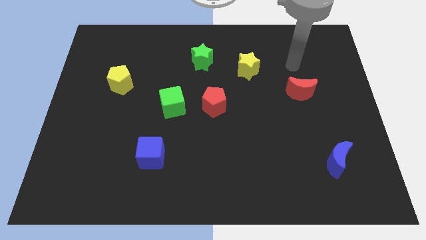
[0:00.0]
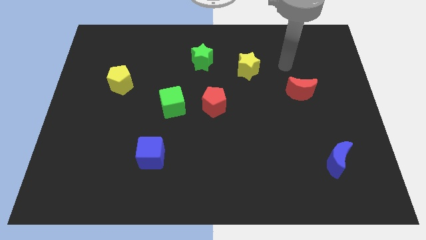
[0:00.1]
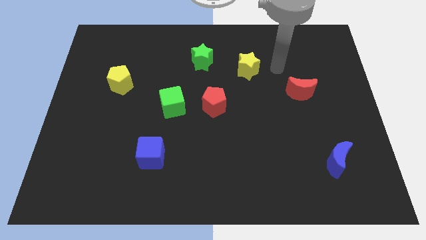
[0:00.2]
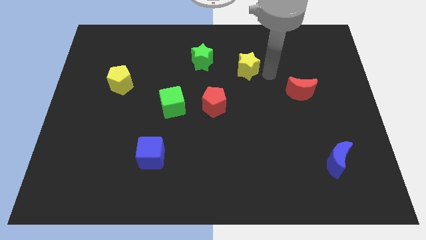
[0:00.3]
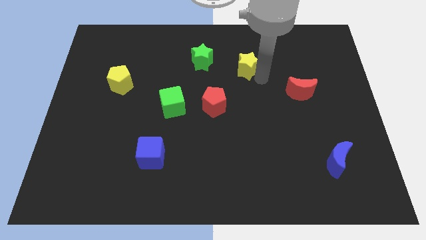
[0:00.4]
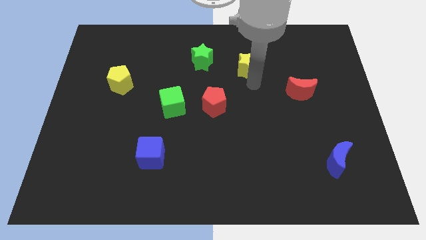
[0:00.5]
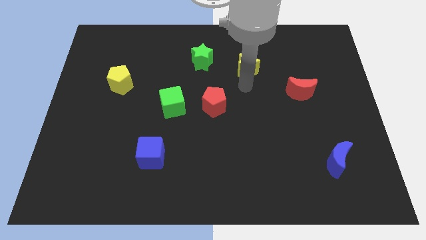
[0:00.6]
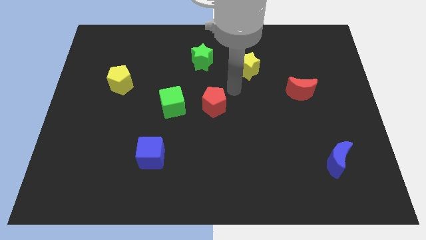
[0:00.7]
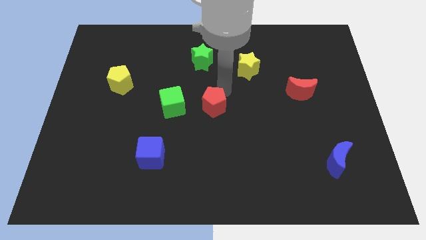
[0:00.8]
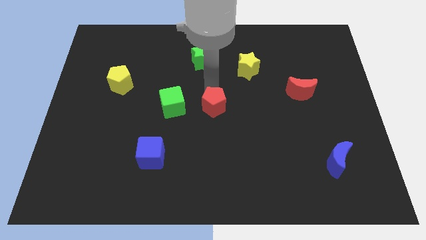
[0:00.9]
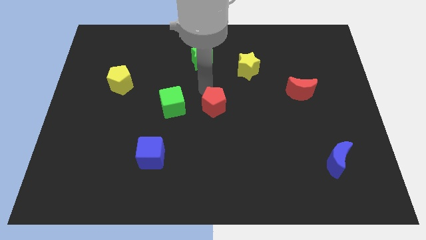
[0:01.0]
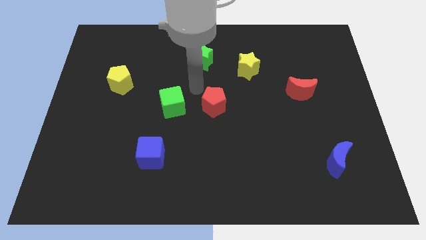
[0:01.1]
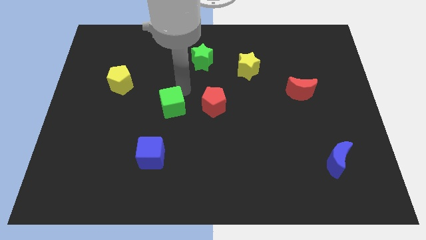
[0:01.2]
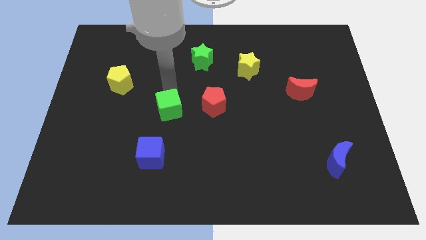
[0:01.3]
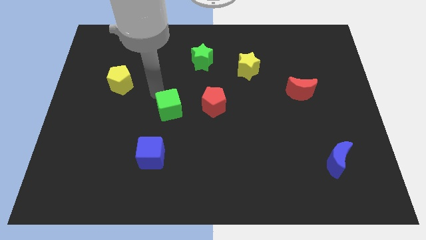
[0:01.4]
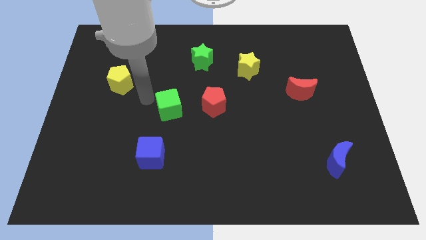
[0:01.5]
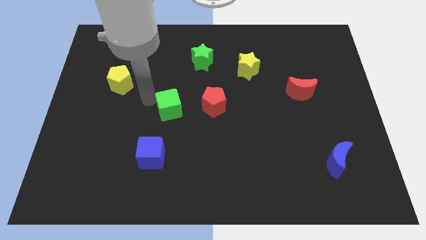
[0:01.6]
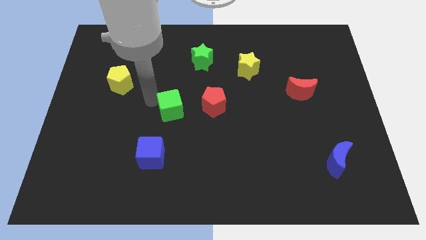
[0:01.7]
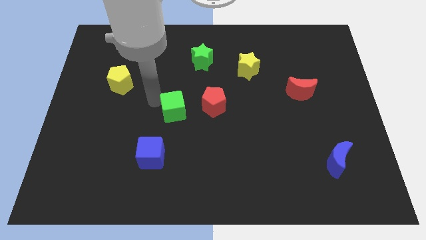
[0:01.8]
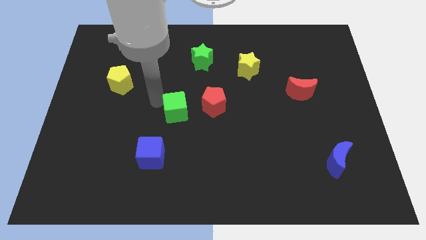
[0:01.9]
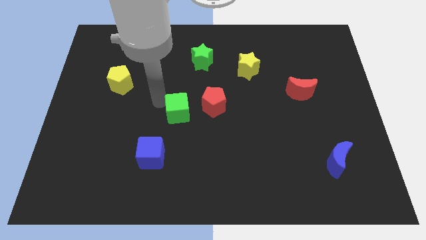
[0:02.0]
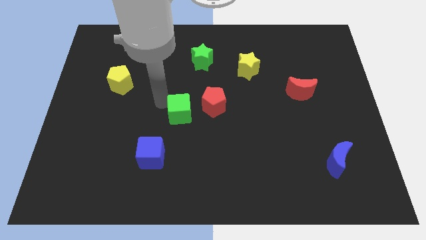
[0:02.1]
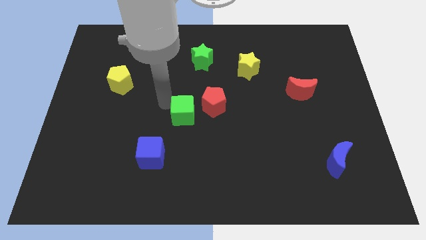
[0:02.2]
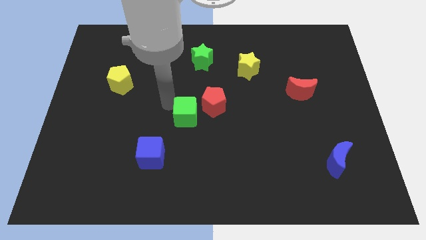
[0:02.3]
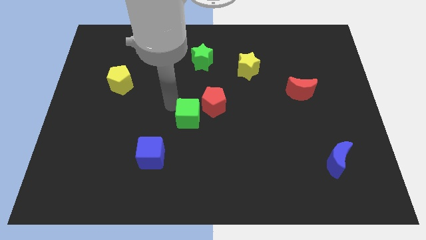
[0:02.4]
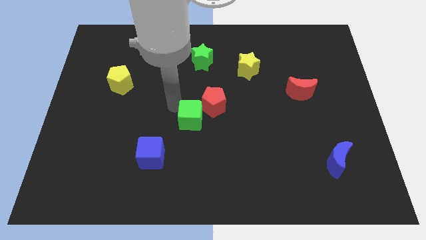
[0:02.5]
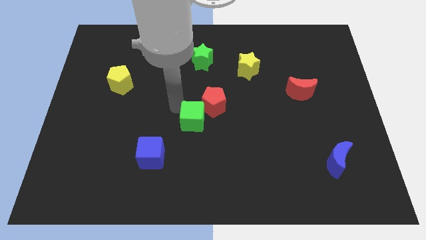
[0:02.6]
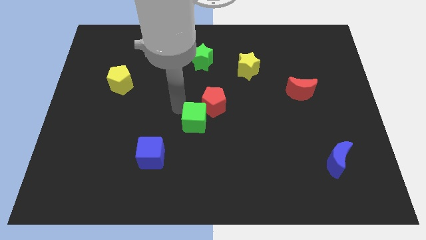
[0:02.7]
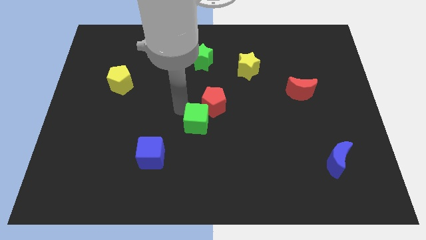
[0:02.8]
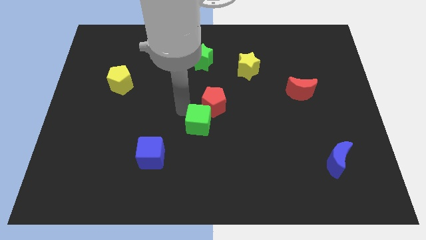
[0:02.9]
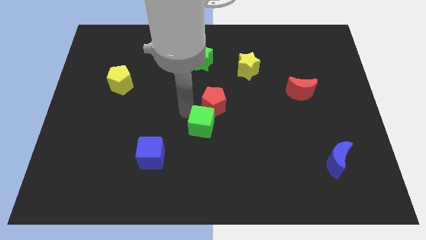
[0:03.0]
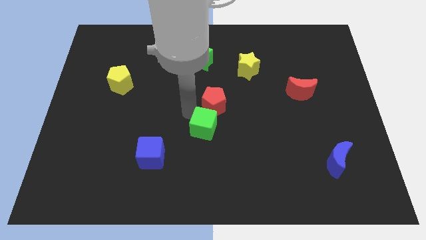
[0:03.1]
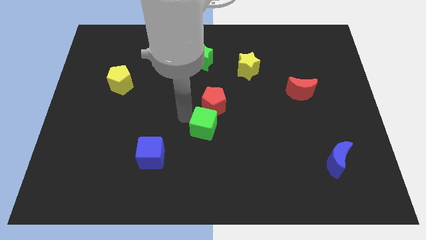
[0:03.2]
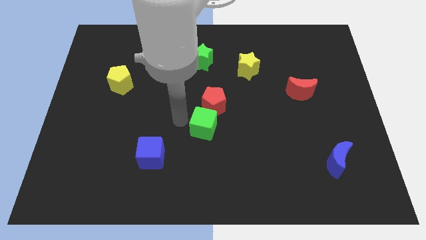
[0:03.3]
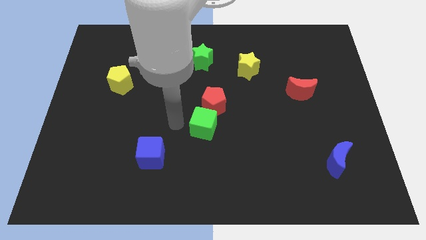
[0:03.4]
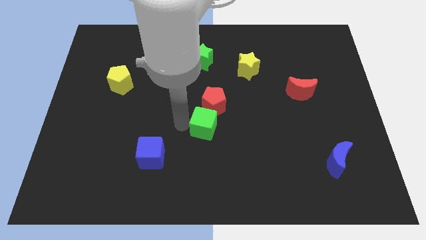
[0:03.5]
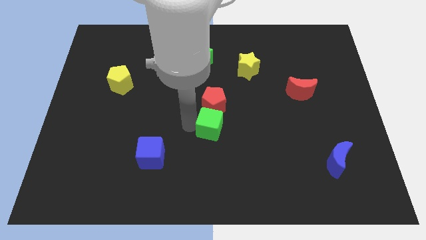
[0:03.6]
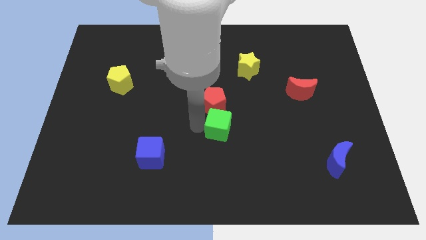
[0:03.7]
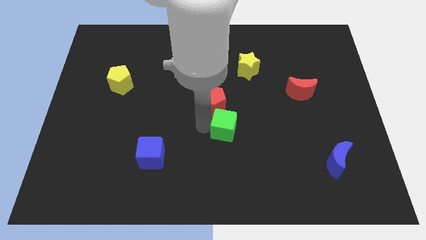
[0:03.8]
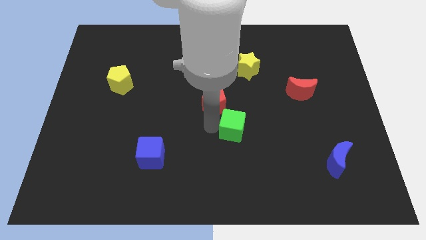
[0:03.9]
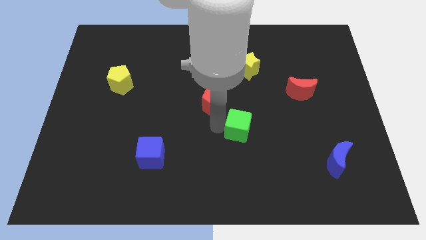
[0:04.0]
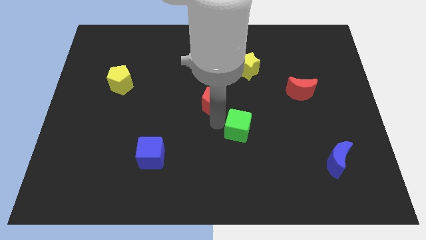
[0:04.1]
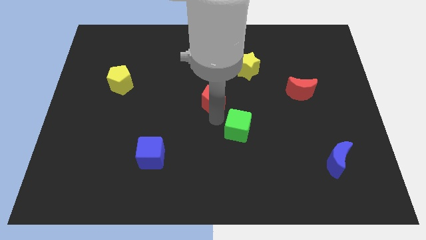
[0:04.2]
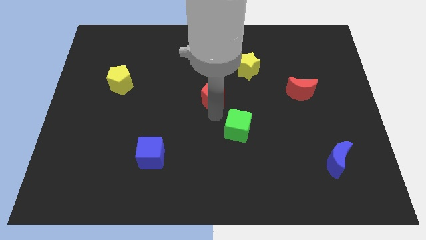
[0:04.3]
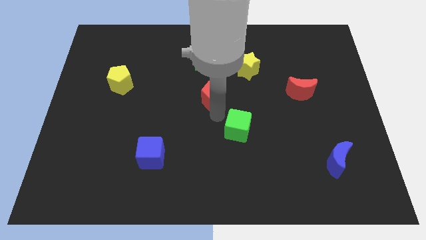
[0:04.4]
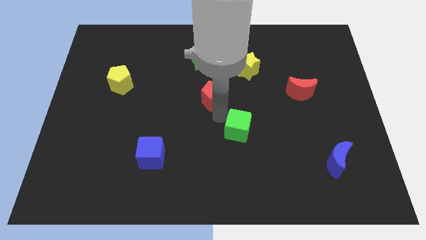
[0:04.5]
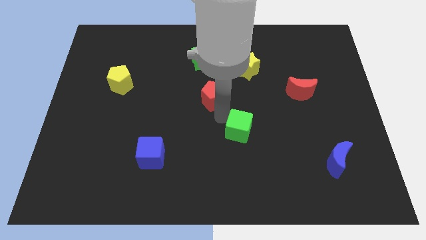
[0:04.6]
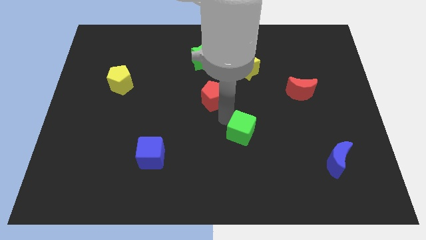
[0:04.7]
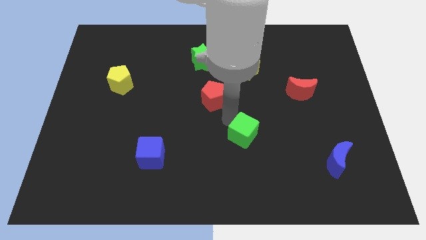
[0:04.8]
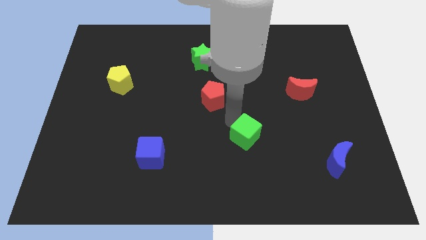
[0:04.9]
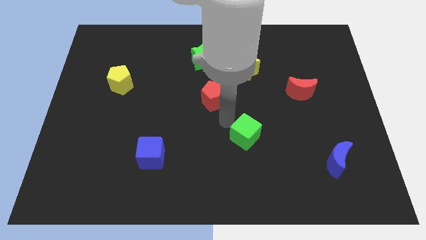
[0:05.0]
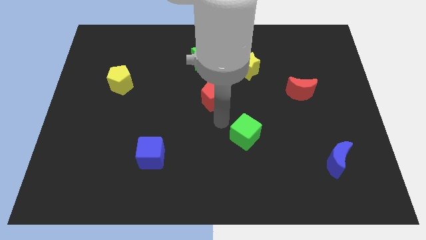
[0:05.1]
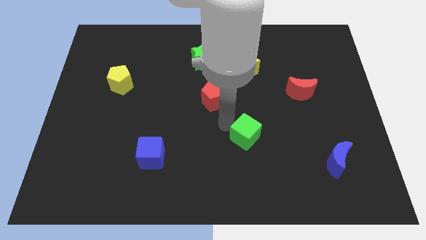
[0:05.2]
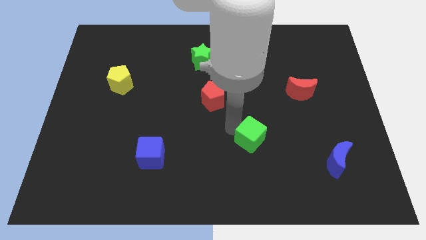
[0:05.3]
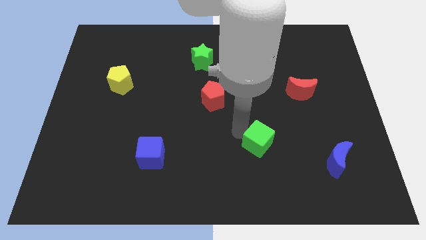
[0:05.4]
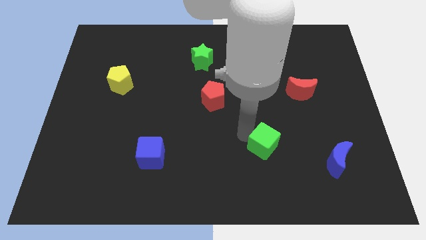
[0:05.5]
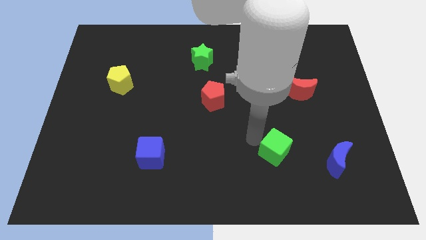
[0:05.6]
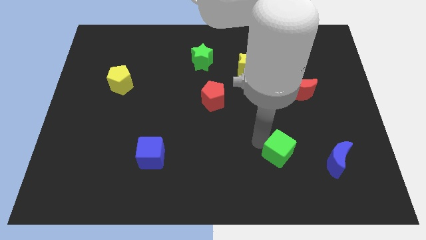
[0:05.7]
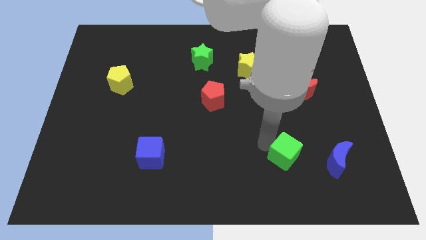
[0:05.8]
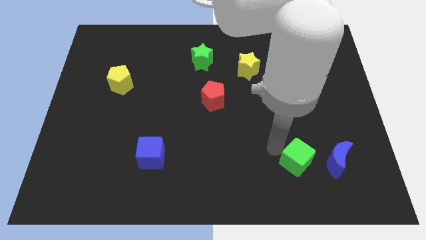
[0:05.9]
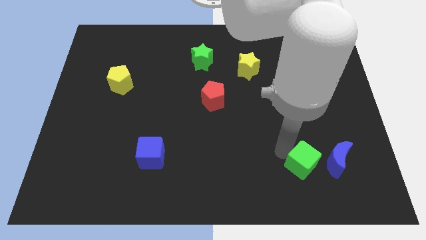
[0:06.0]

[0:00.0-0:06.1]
put the green cube diagonally down and to the left of the blue moon

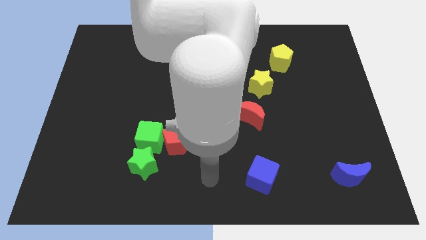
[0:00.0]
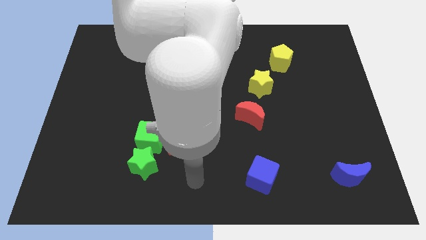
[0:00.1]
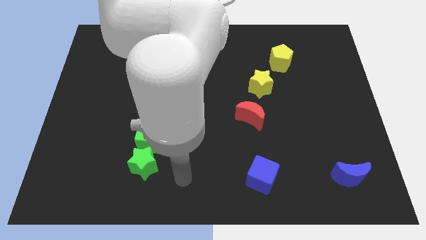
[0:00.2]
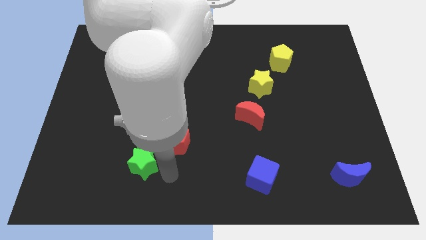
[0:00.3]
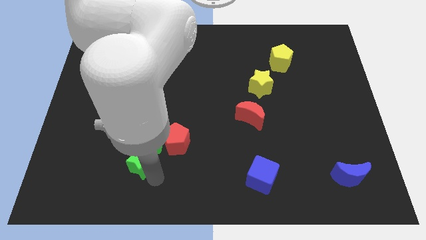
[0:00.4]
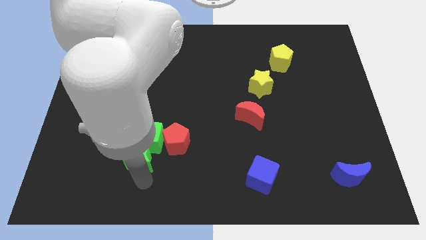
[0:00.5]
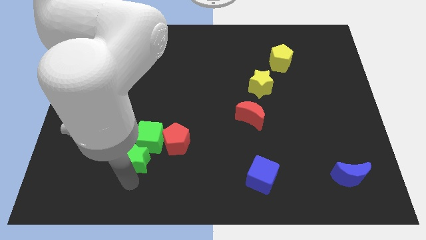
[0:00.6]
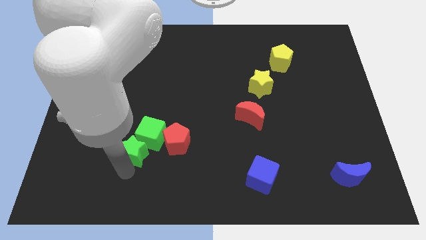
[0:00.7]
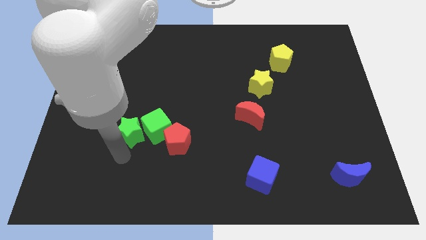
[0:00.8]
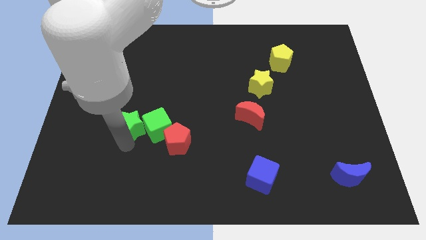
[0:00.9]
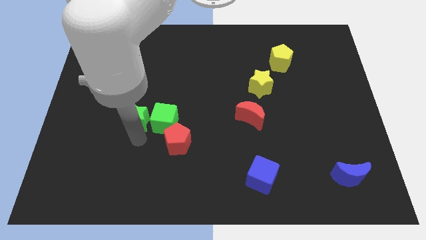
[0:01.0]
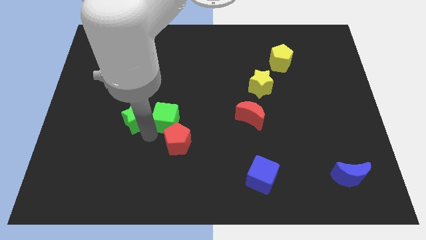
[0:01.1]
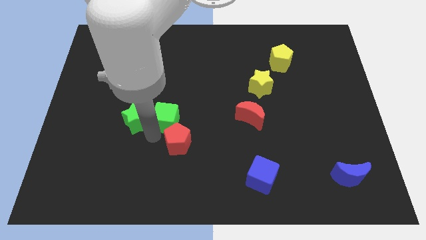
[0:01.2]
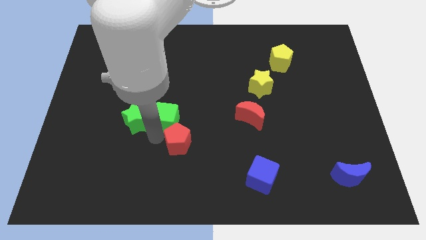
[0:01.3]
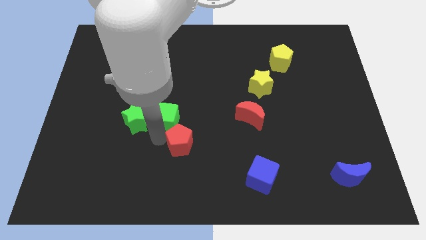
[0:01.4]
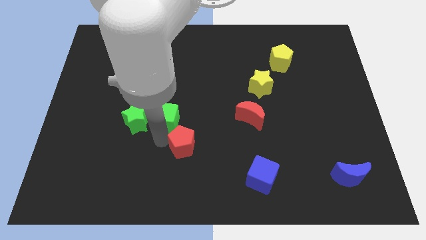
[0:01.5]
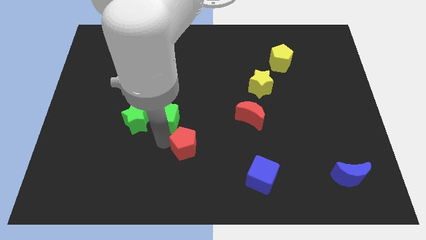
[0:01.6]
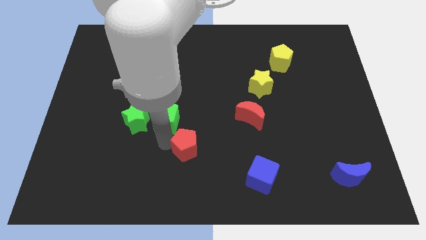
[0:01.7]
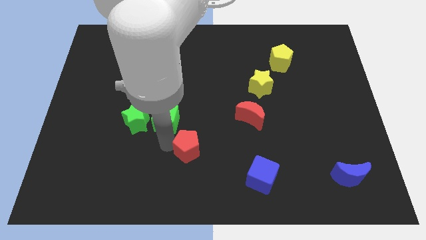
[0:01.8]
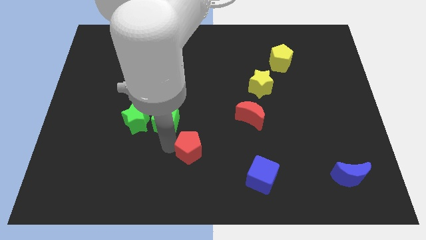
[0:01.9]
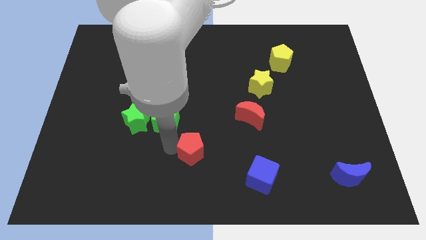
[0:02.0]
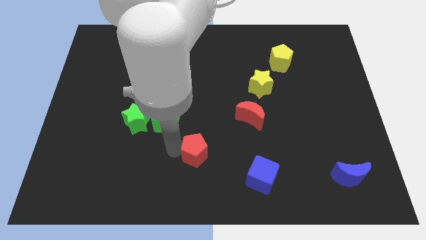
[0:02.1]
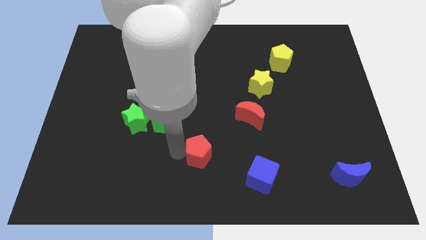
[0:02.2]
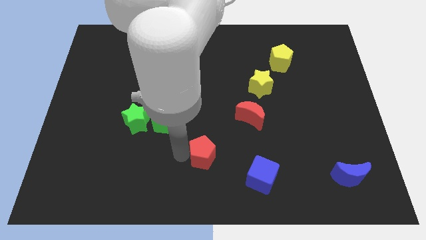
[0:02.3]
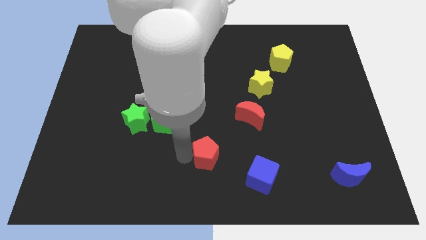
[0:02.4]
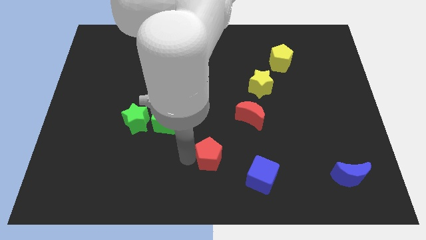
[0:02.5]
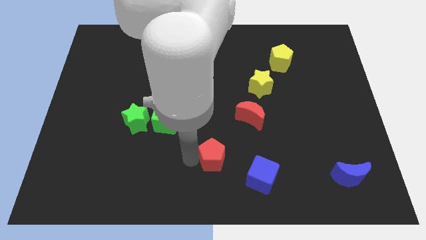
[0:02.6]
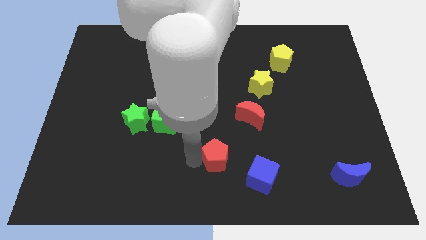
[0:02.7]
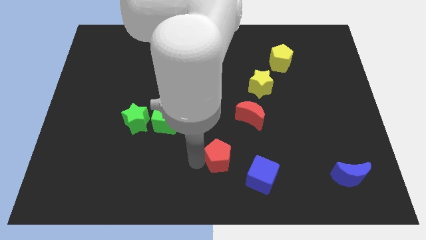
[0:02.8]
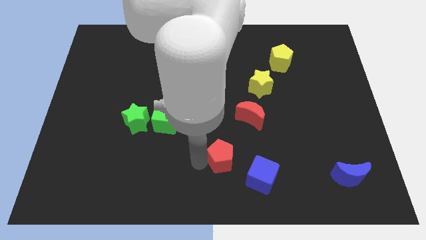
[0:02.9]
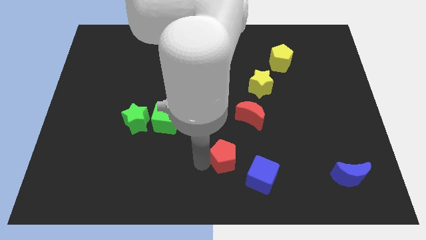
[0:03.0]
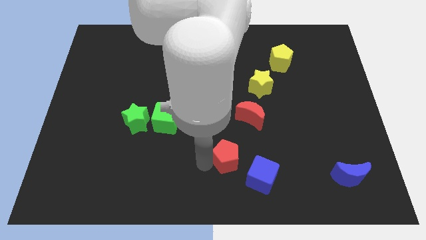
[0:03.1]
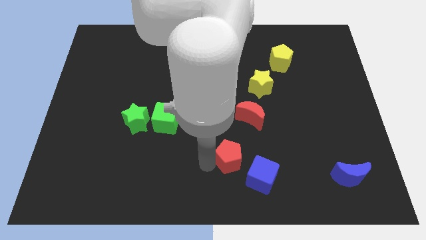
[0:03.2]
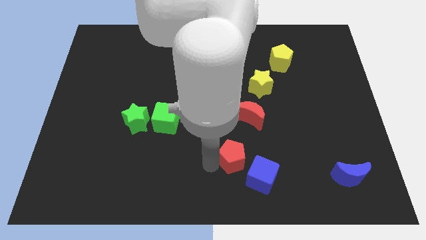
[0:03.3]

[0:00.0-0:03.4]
put the red pentagon below the red moon
